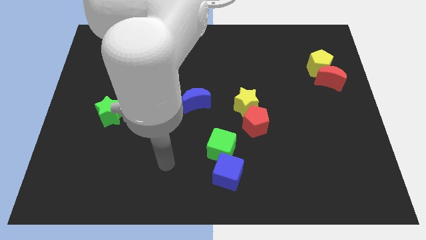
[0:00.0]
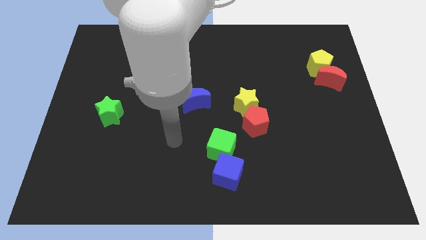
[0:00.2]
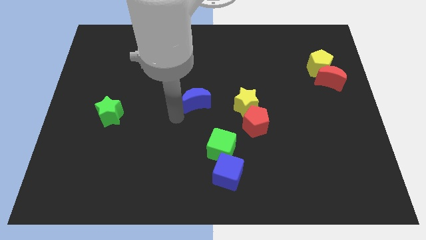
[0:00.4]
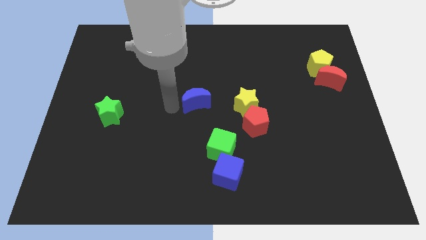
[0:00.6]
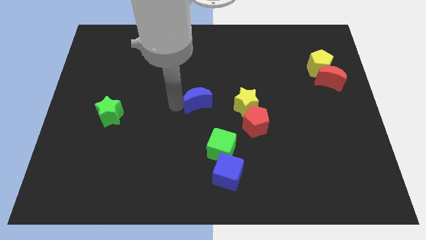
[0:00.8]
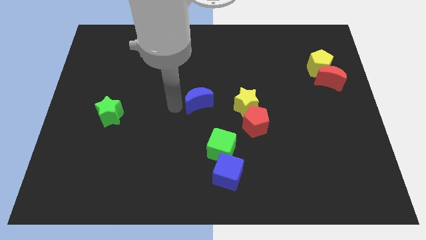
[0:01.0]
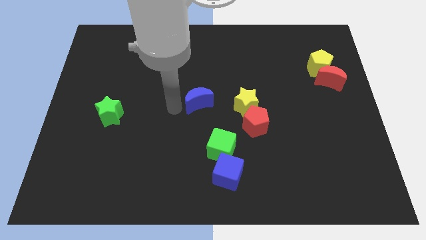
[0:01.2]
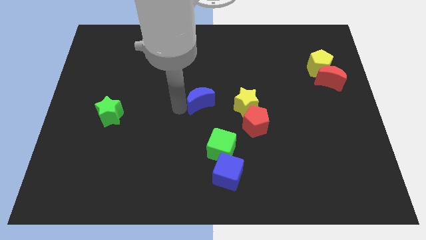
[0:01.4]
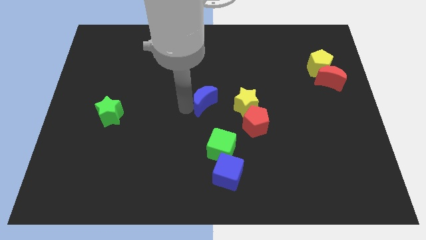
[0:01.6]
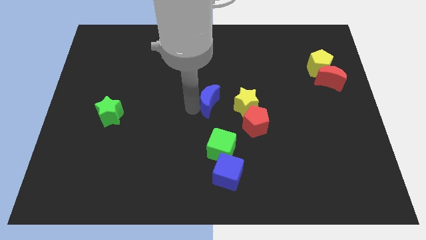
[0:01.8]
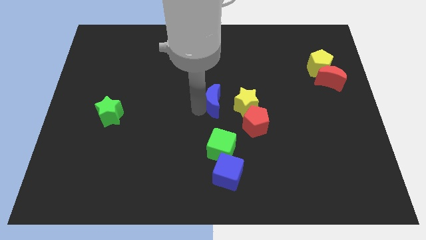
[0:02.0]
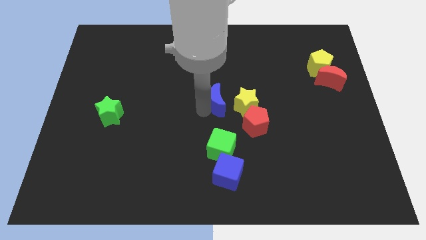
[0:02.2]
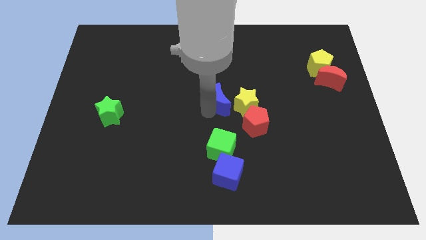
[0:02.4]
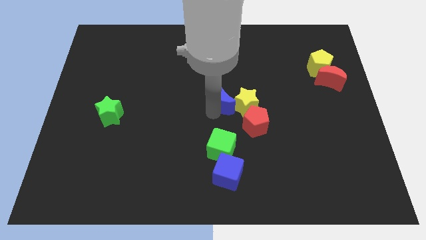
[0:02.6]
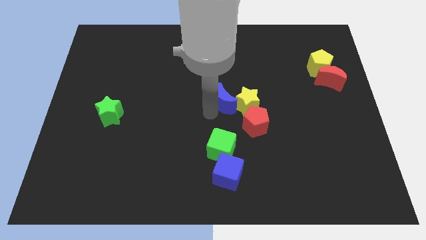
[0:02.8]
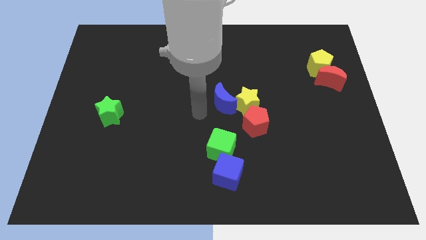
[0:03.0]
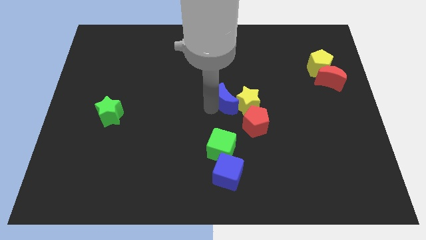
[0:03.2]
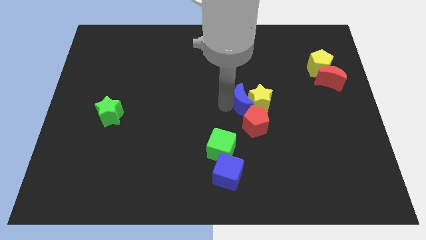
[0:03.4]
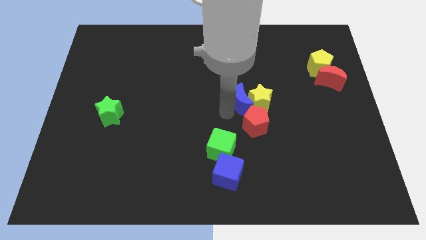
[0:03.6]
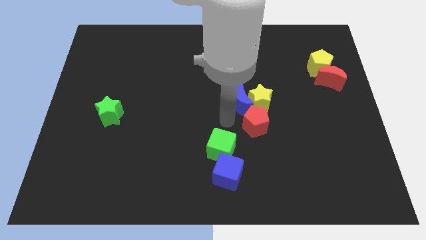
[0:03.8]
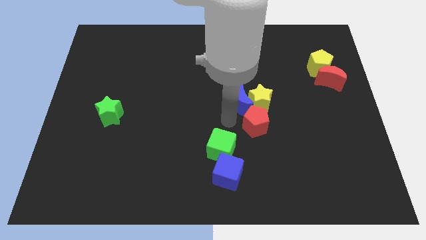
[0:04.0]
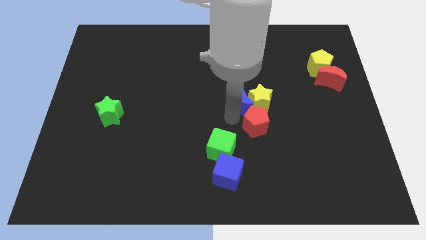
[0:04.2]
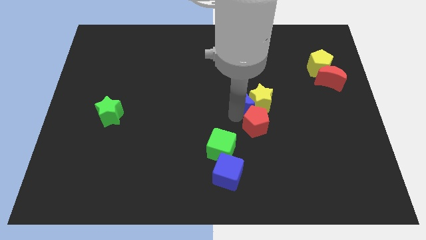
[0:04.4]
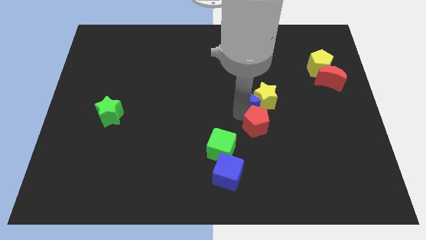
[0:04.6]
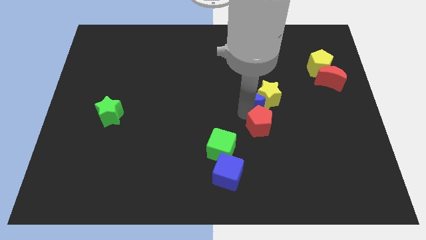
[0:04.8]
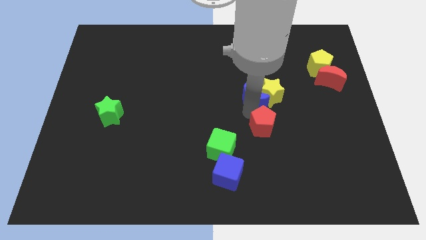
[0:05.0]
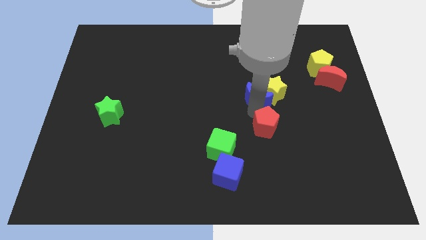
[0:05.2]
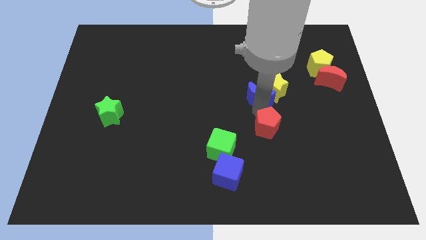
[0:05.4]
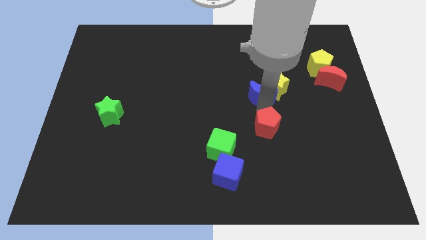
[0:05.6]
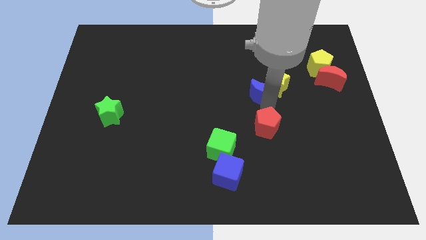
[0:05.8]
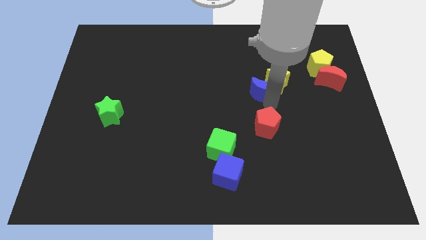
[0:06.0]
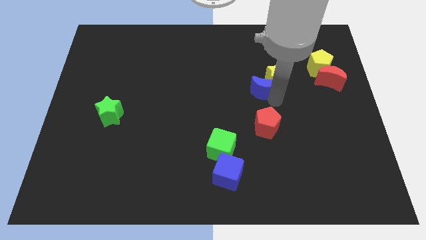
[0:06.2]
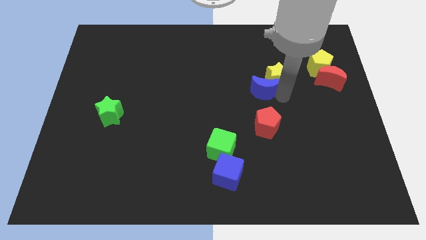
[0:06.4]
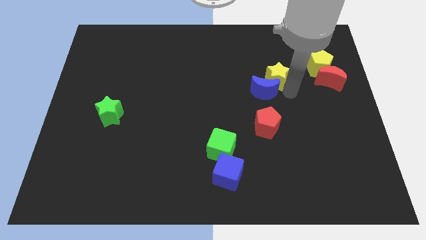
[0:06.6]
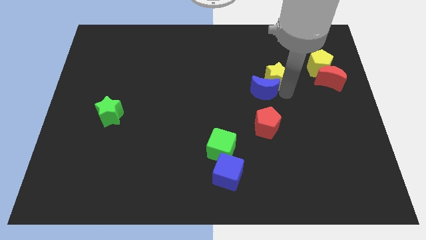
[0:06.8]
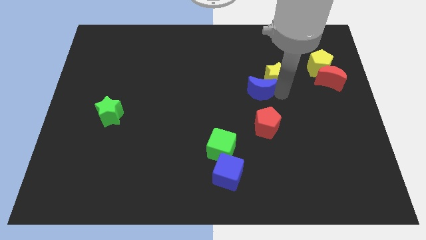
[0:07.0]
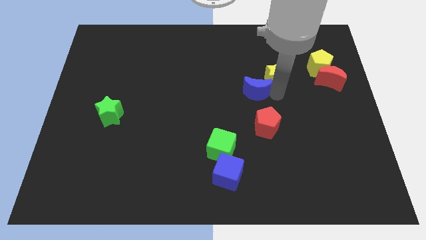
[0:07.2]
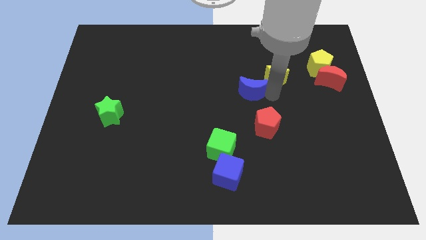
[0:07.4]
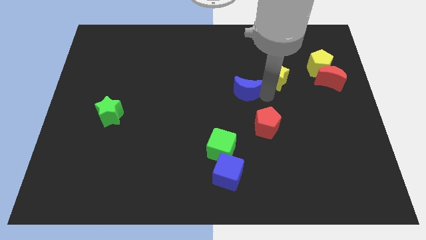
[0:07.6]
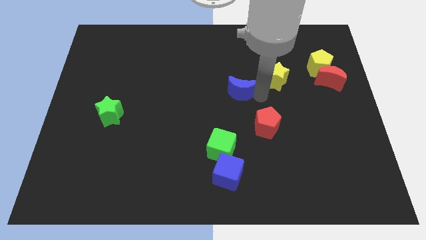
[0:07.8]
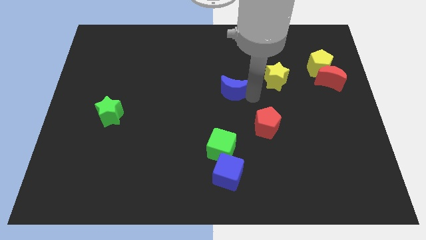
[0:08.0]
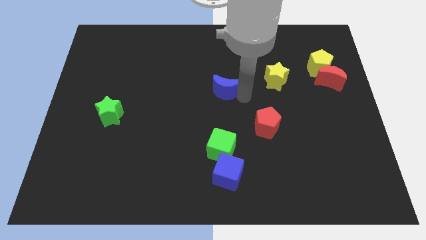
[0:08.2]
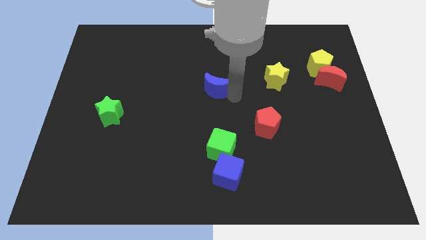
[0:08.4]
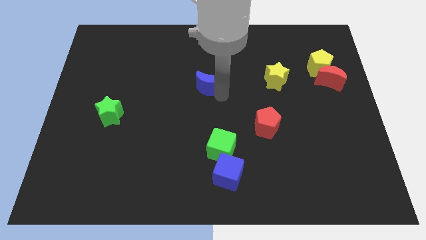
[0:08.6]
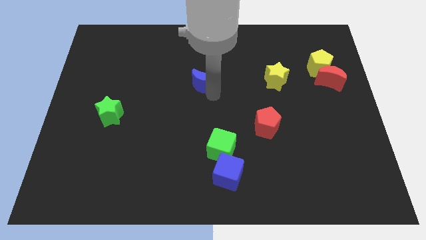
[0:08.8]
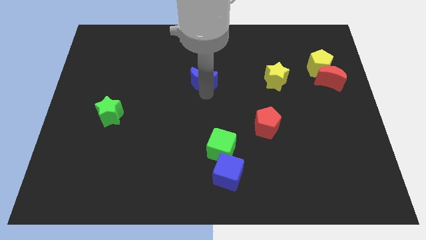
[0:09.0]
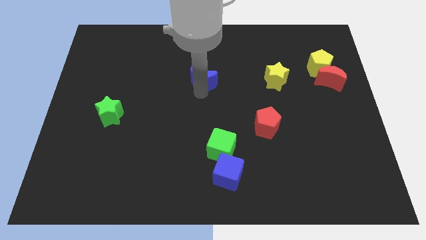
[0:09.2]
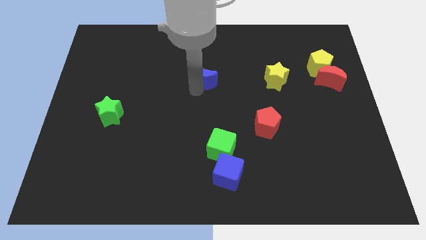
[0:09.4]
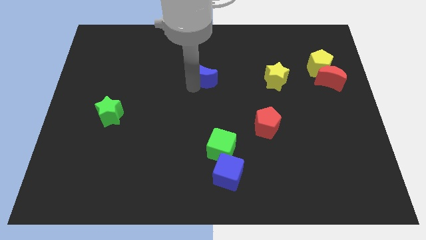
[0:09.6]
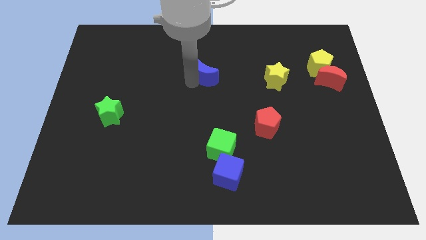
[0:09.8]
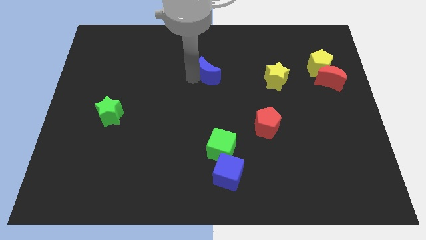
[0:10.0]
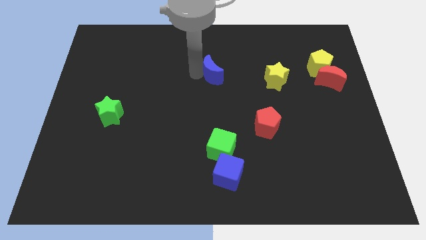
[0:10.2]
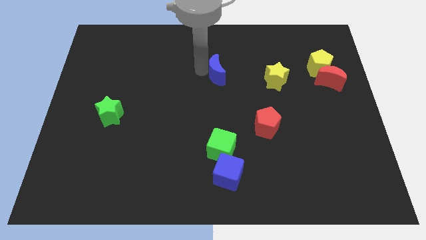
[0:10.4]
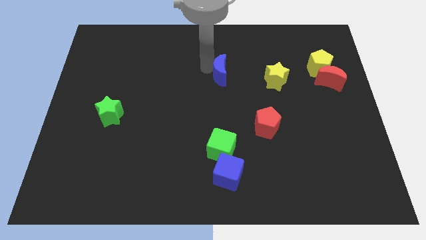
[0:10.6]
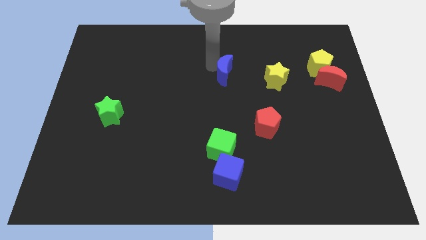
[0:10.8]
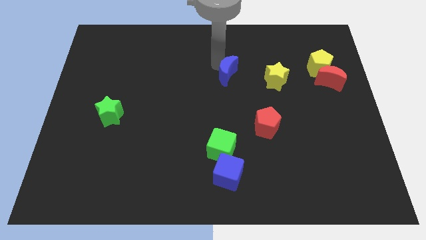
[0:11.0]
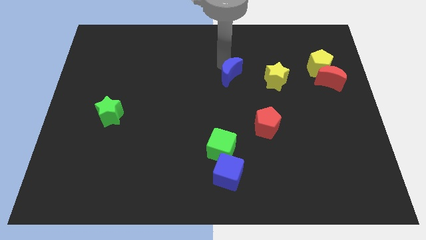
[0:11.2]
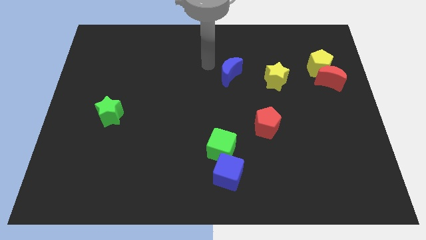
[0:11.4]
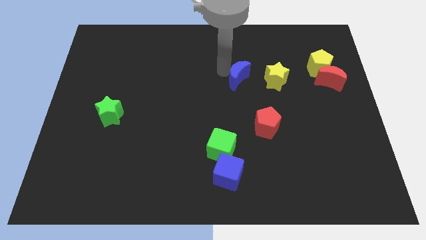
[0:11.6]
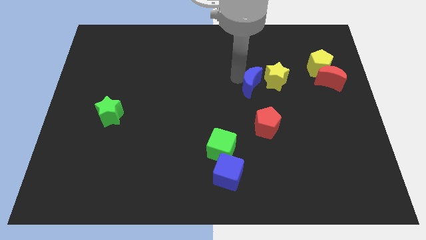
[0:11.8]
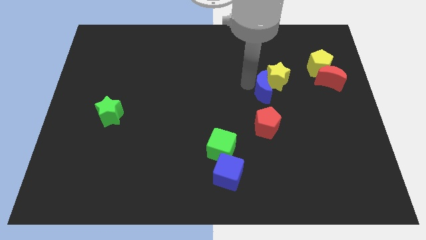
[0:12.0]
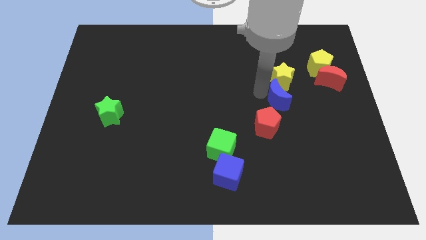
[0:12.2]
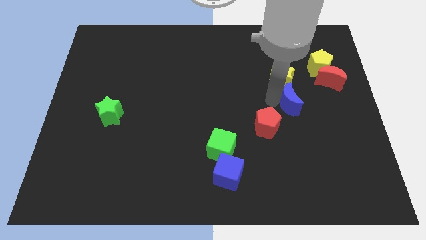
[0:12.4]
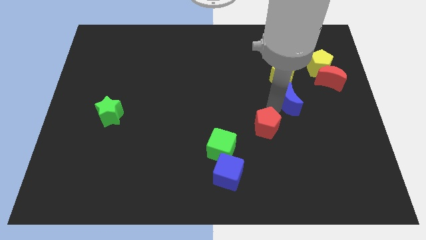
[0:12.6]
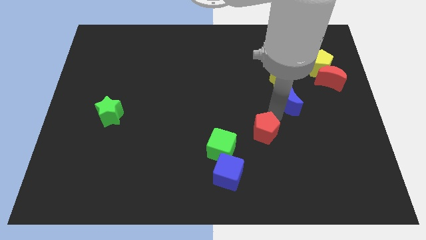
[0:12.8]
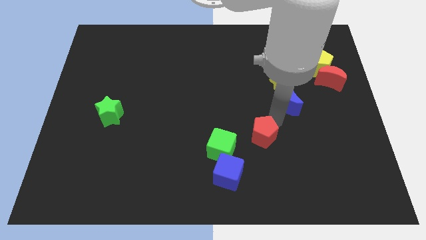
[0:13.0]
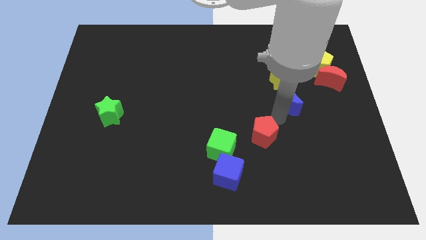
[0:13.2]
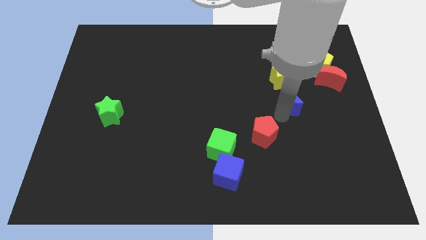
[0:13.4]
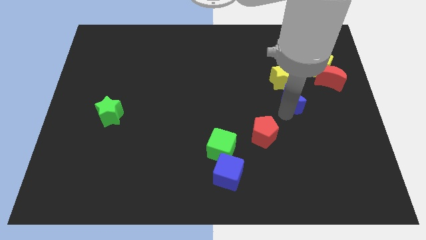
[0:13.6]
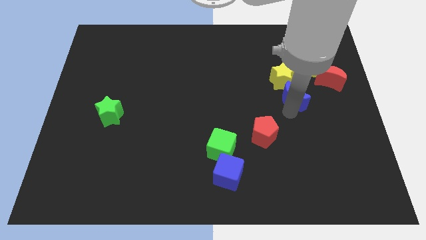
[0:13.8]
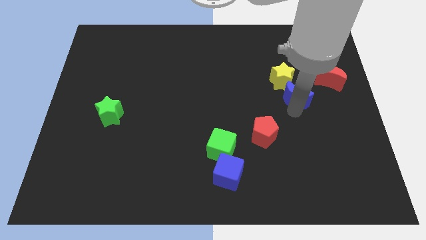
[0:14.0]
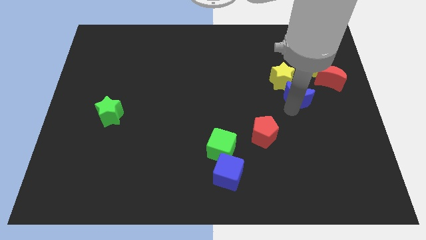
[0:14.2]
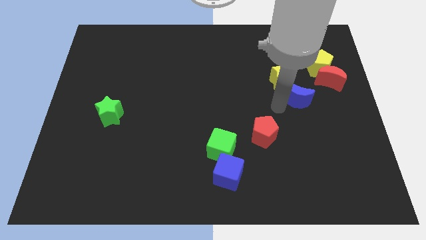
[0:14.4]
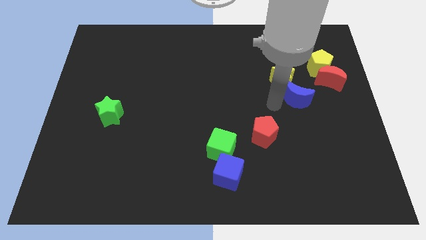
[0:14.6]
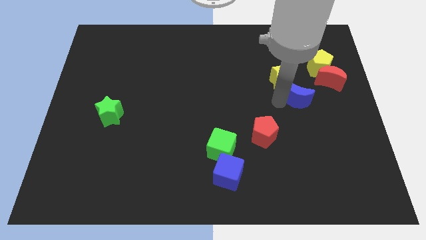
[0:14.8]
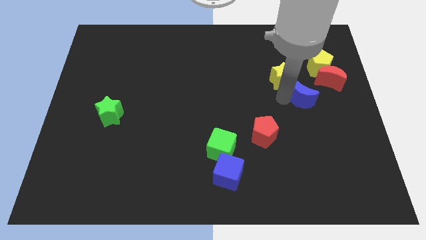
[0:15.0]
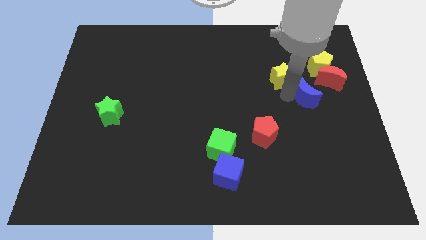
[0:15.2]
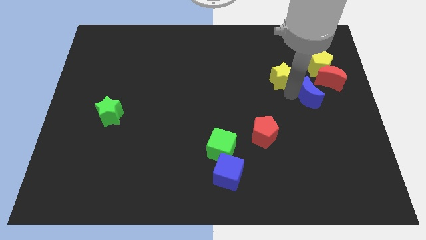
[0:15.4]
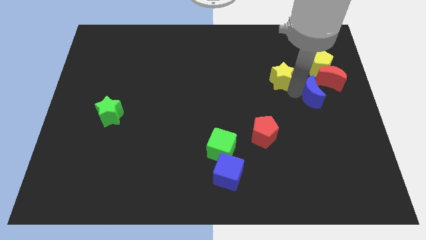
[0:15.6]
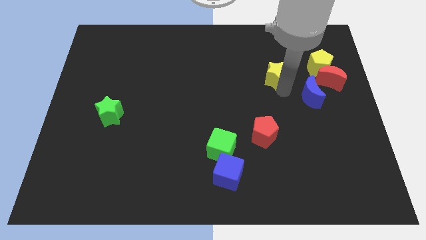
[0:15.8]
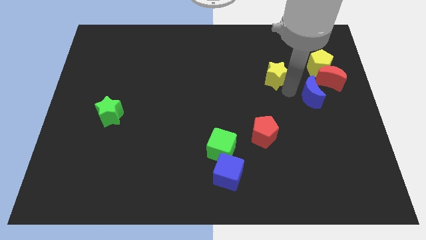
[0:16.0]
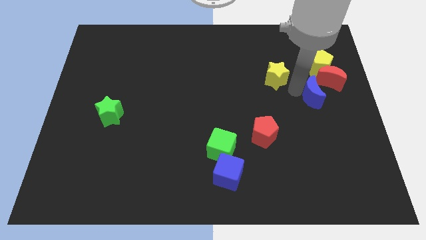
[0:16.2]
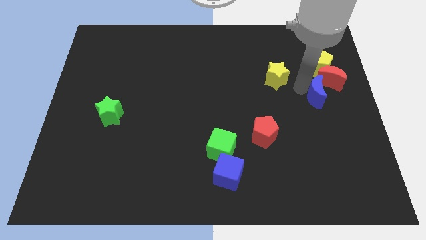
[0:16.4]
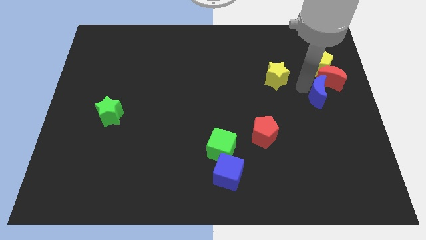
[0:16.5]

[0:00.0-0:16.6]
push the blue moon to the right side
